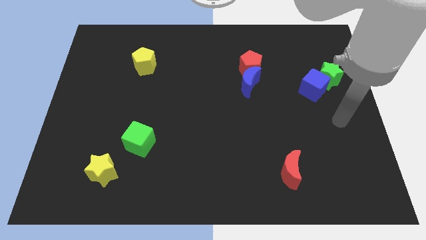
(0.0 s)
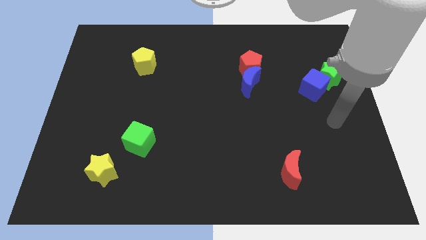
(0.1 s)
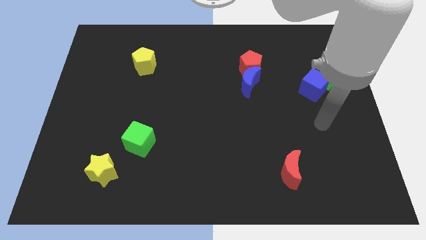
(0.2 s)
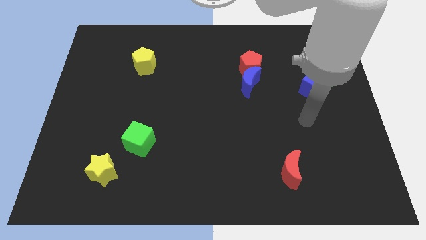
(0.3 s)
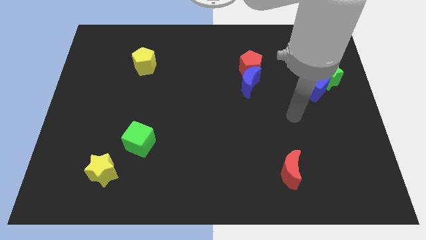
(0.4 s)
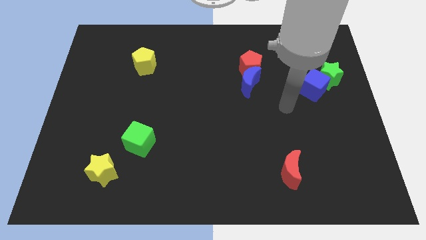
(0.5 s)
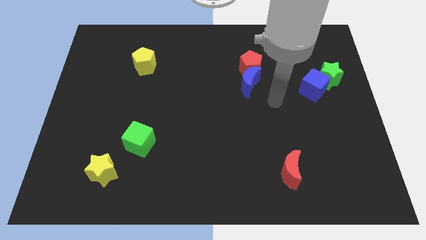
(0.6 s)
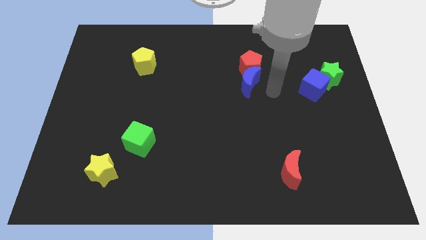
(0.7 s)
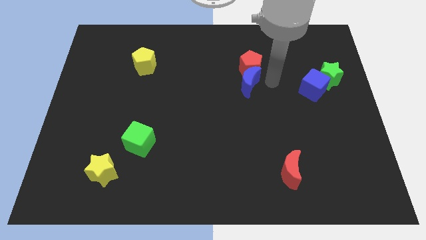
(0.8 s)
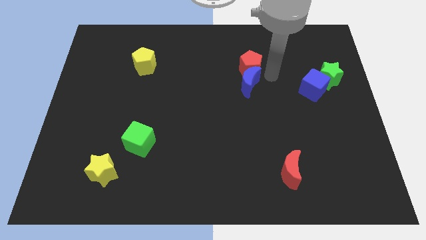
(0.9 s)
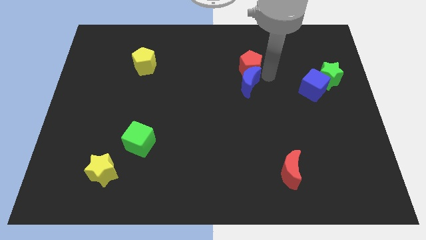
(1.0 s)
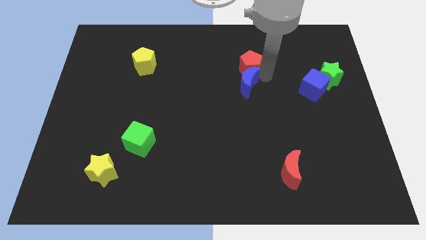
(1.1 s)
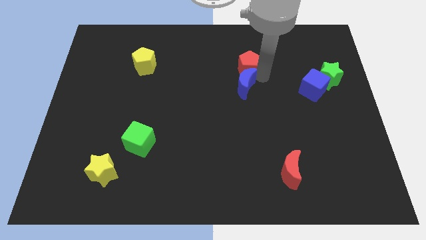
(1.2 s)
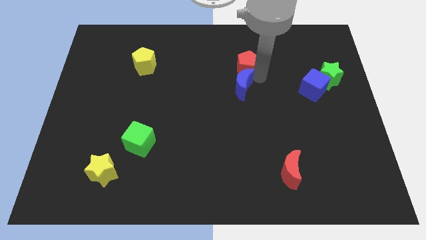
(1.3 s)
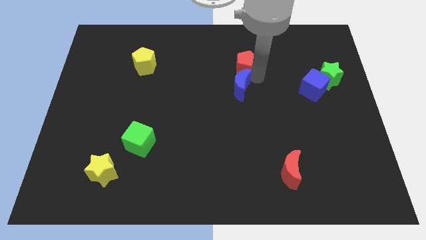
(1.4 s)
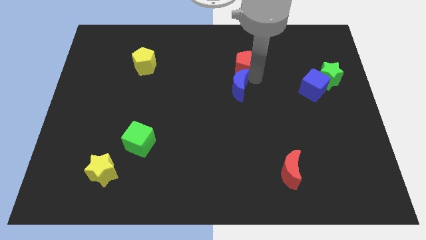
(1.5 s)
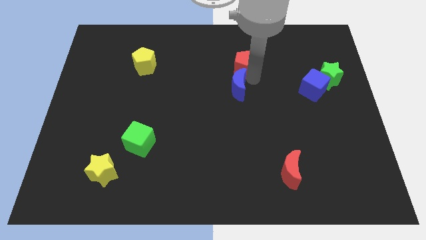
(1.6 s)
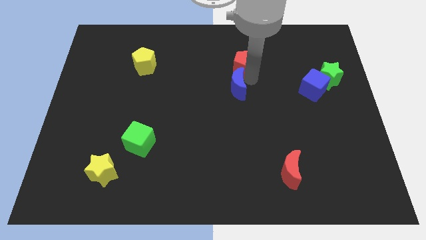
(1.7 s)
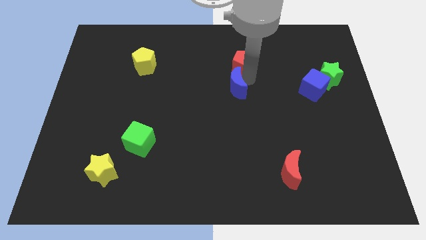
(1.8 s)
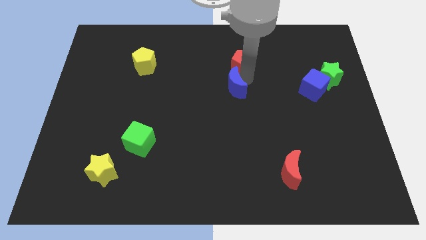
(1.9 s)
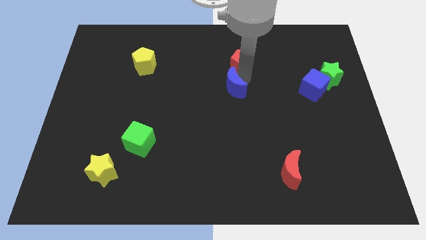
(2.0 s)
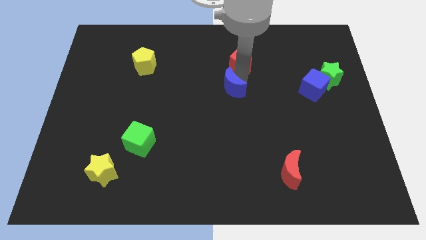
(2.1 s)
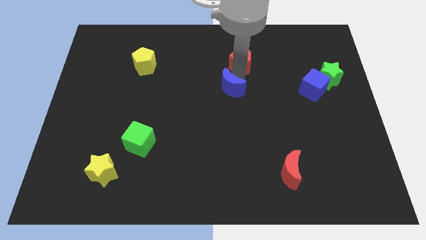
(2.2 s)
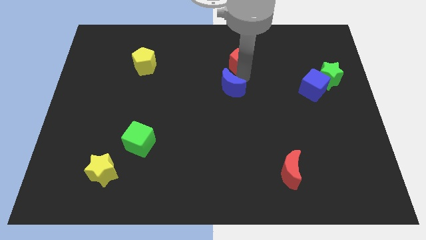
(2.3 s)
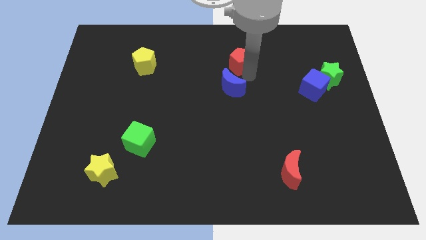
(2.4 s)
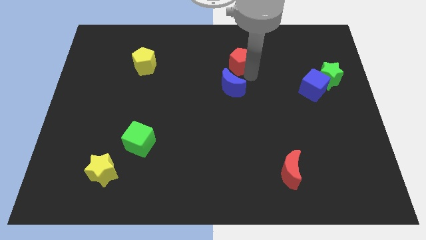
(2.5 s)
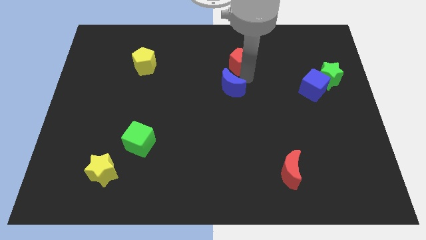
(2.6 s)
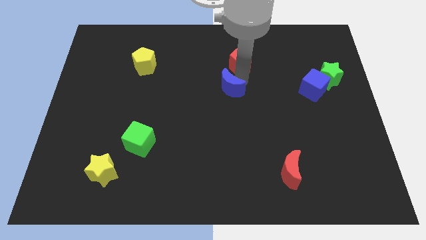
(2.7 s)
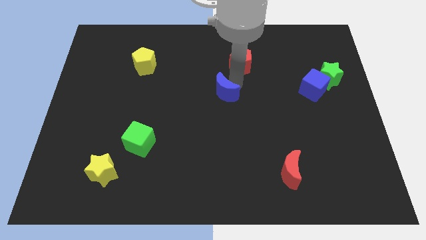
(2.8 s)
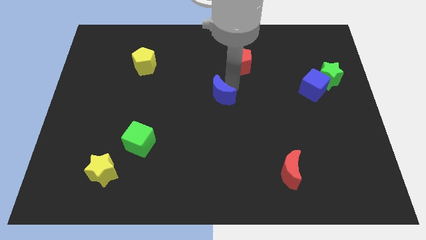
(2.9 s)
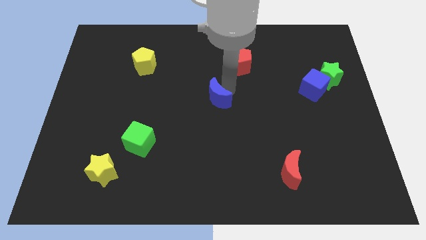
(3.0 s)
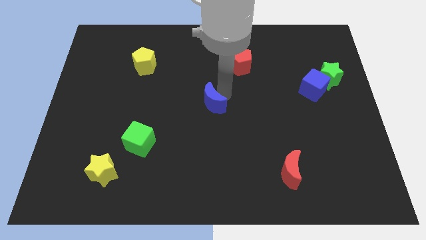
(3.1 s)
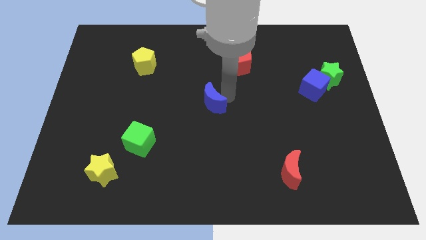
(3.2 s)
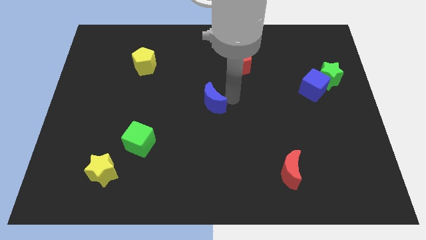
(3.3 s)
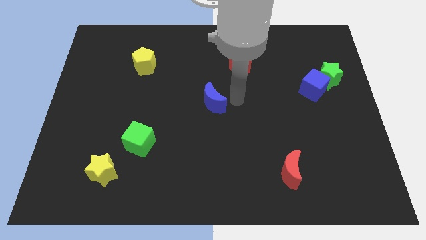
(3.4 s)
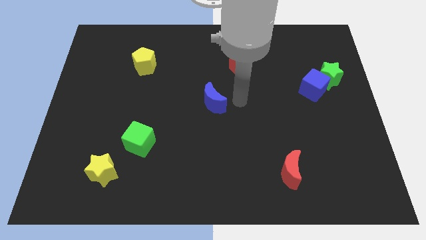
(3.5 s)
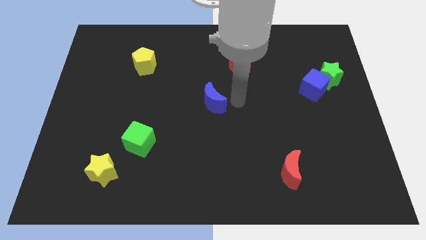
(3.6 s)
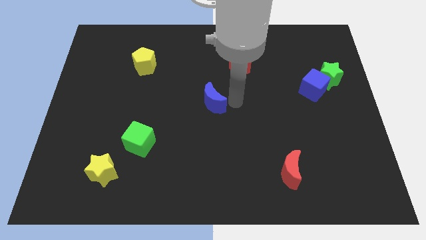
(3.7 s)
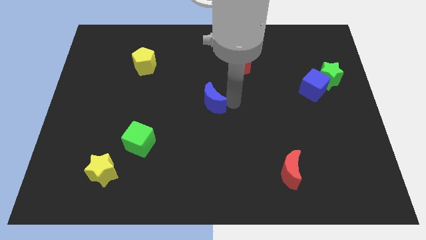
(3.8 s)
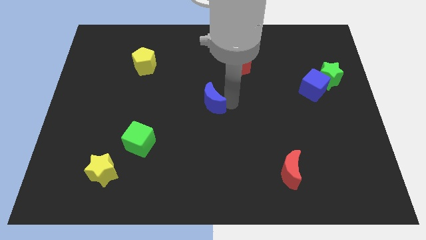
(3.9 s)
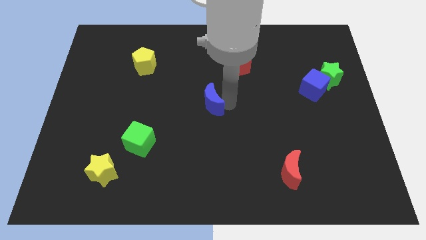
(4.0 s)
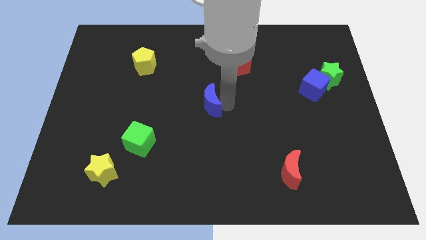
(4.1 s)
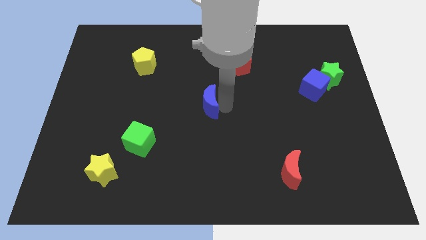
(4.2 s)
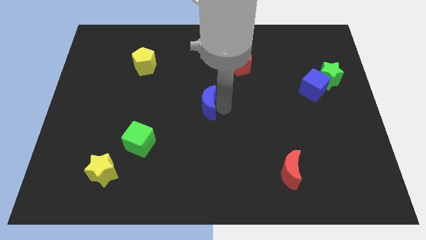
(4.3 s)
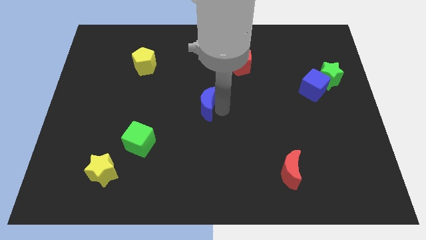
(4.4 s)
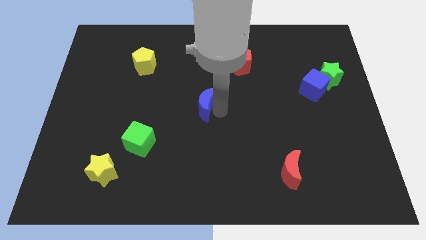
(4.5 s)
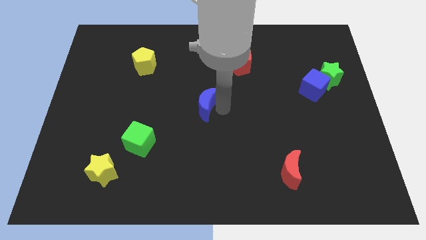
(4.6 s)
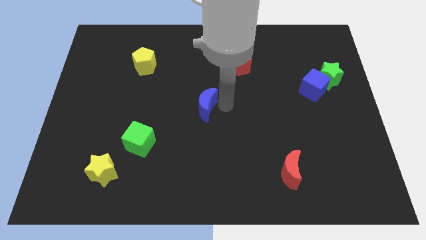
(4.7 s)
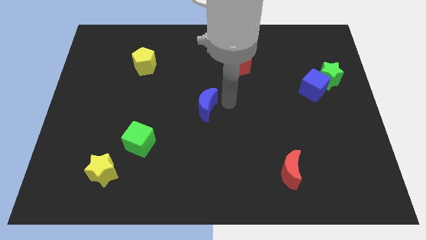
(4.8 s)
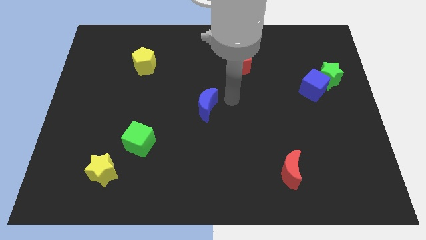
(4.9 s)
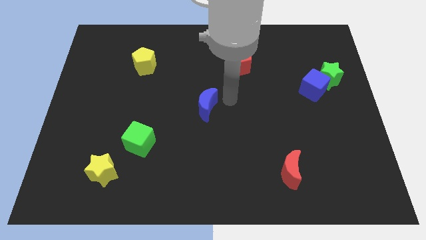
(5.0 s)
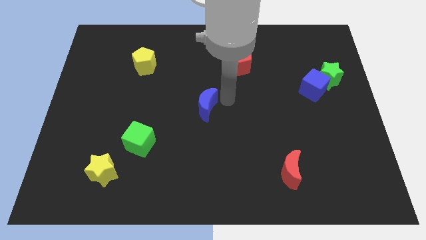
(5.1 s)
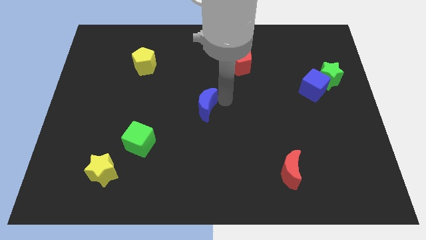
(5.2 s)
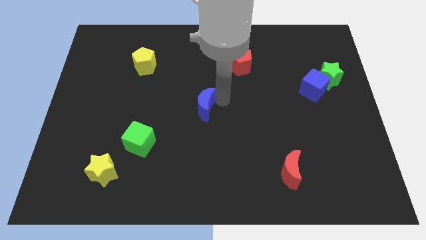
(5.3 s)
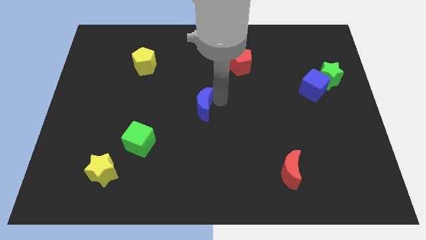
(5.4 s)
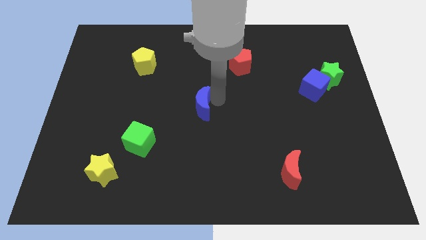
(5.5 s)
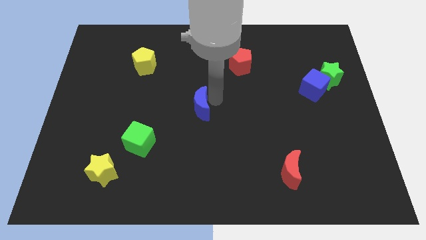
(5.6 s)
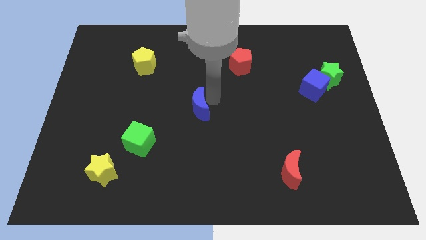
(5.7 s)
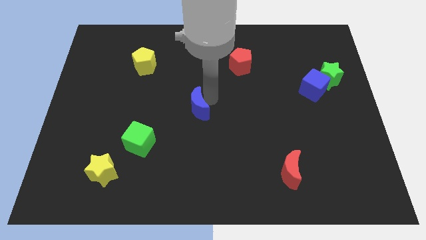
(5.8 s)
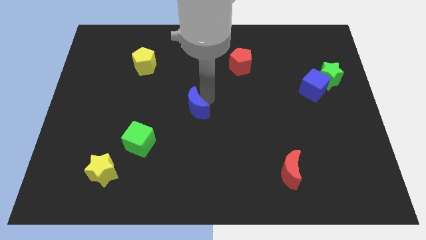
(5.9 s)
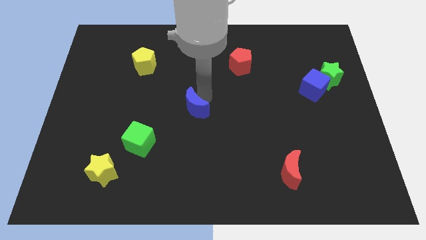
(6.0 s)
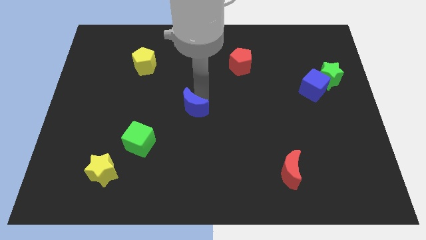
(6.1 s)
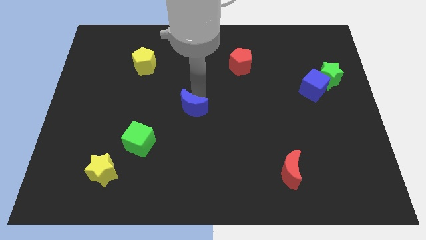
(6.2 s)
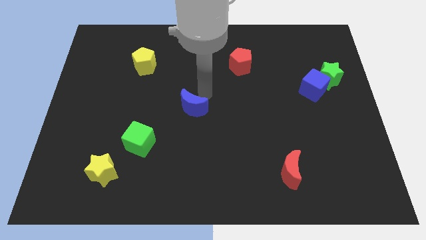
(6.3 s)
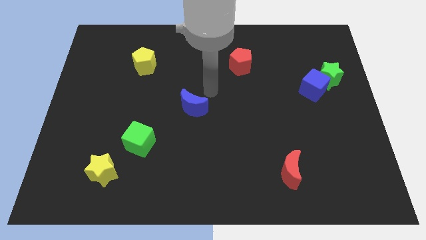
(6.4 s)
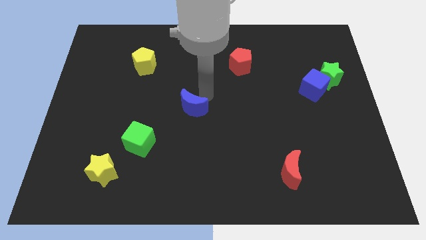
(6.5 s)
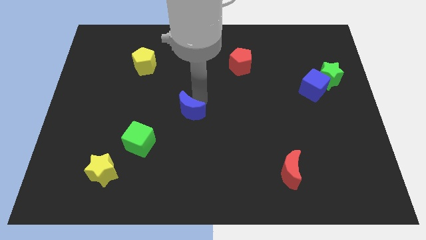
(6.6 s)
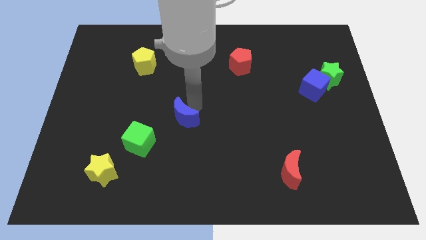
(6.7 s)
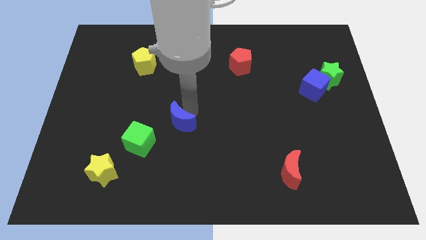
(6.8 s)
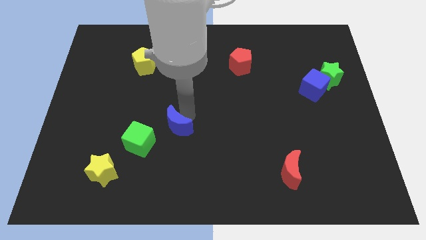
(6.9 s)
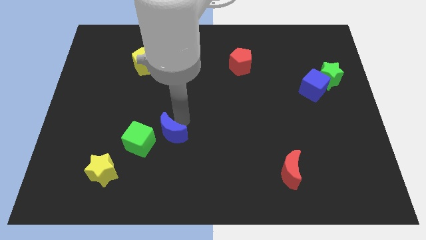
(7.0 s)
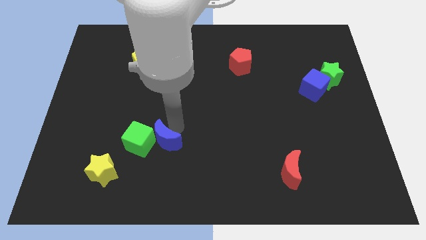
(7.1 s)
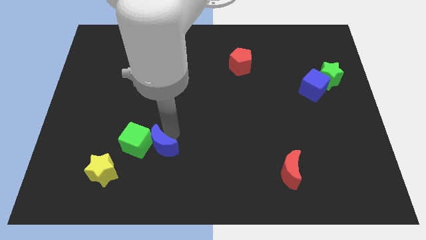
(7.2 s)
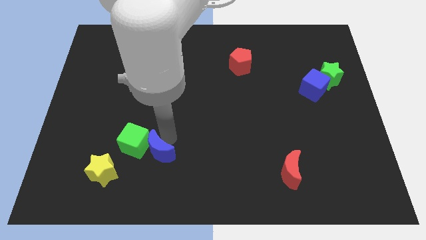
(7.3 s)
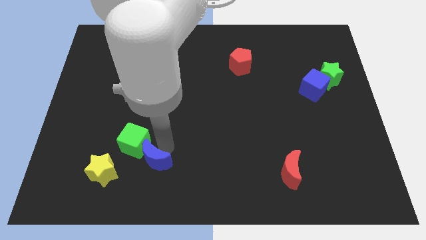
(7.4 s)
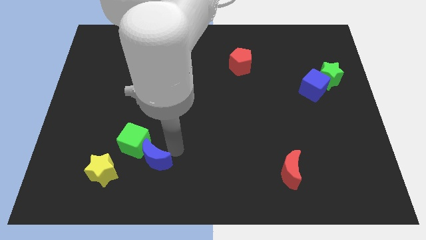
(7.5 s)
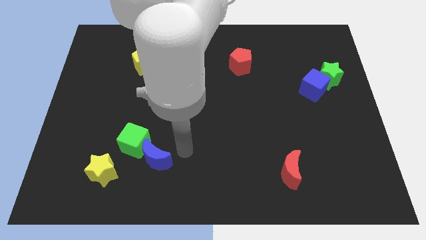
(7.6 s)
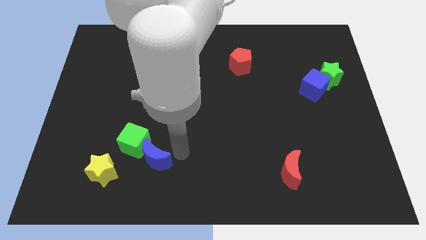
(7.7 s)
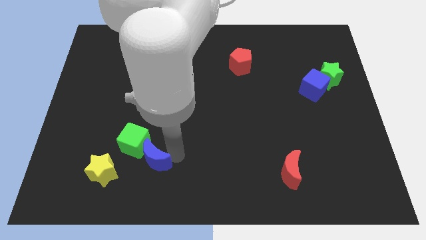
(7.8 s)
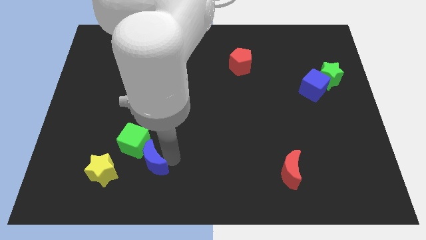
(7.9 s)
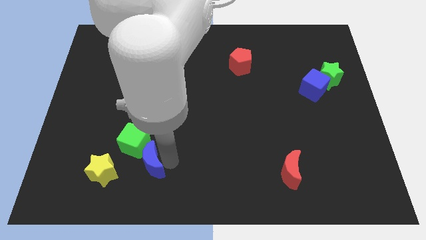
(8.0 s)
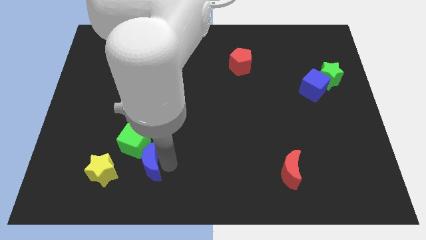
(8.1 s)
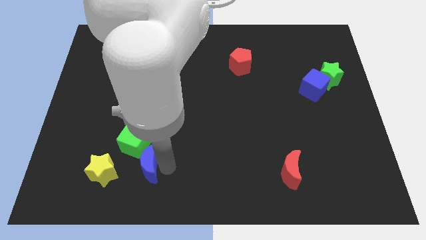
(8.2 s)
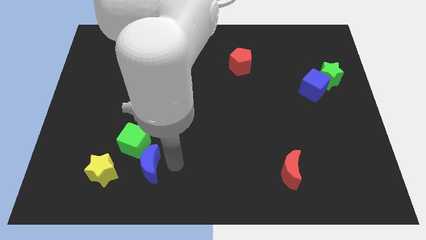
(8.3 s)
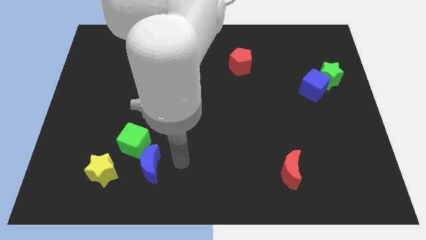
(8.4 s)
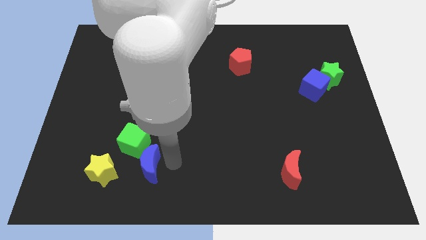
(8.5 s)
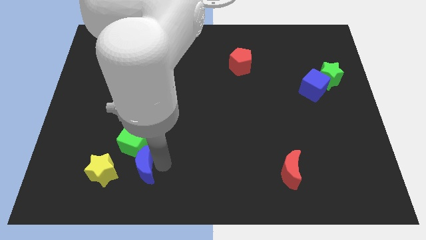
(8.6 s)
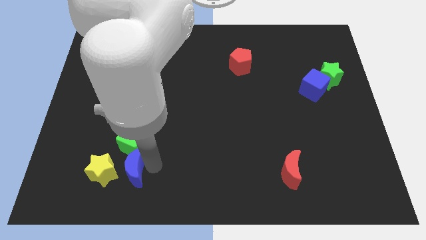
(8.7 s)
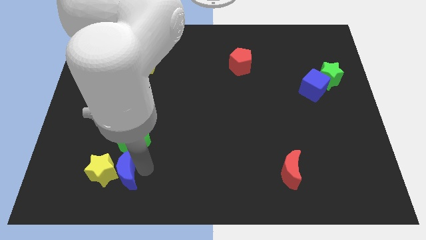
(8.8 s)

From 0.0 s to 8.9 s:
move the blue moon close to the yellow star
